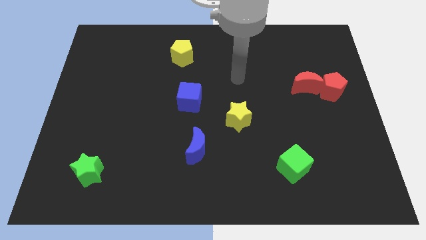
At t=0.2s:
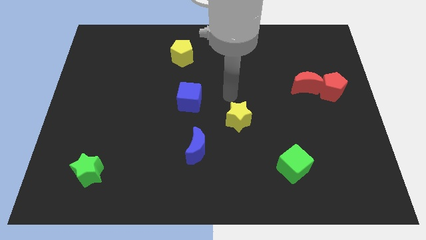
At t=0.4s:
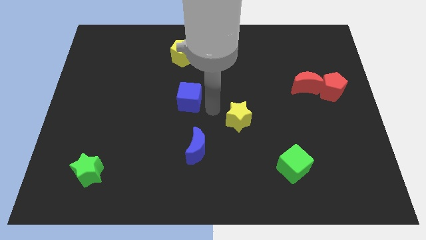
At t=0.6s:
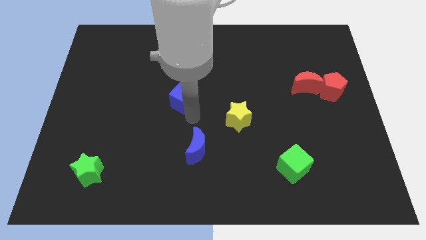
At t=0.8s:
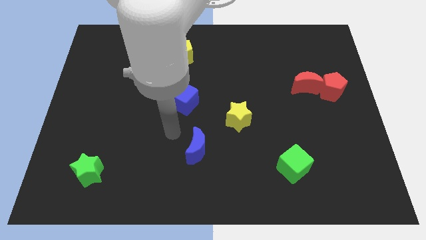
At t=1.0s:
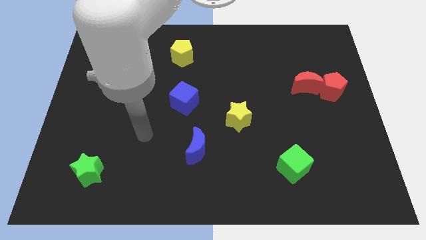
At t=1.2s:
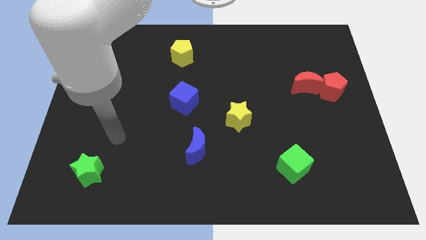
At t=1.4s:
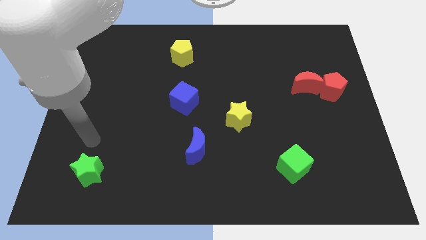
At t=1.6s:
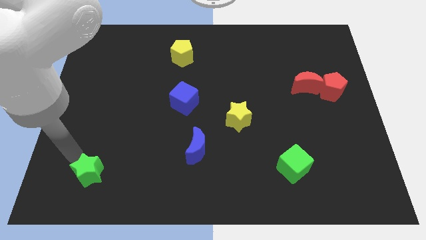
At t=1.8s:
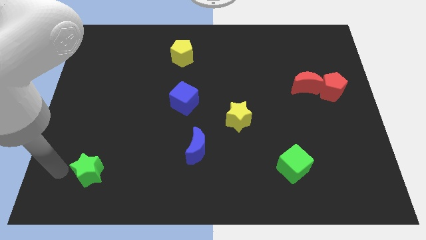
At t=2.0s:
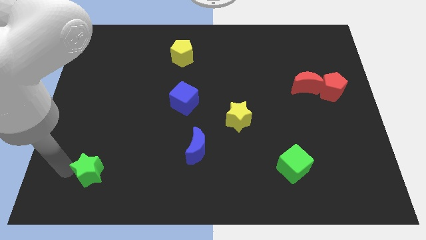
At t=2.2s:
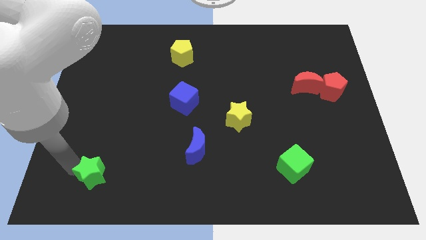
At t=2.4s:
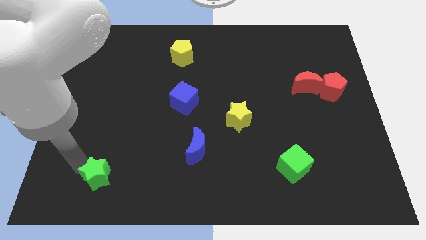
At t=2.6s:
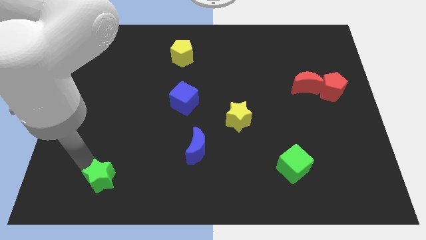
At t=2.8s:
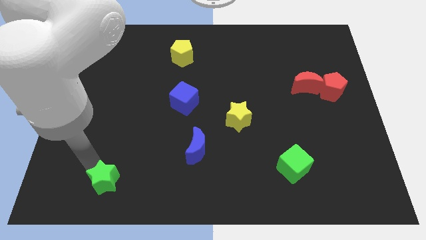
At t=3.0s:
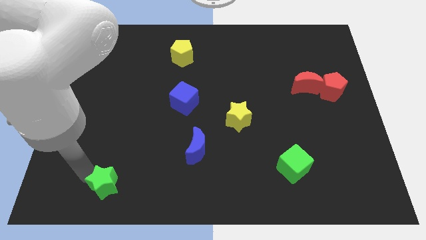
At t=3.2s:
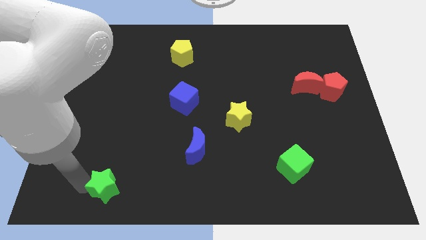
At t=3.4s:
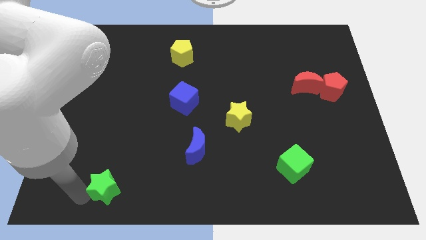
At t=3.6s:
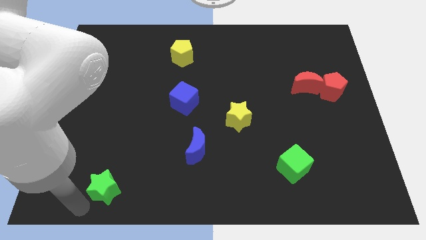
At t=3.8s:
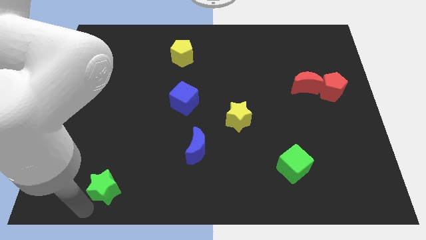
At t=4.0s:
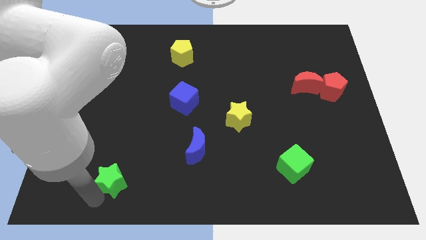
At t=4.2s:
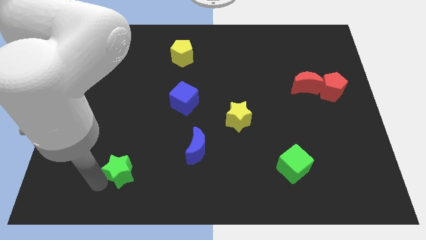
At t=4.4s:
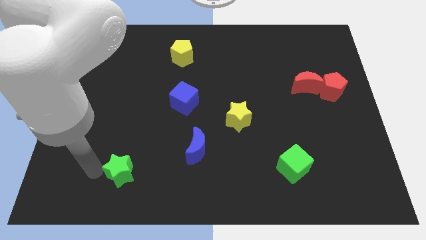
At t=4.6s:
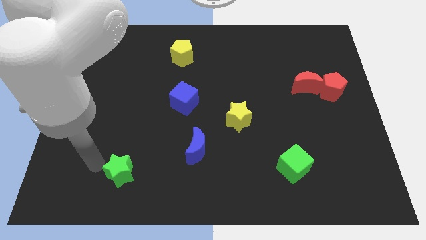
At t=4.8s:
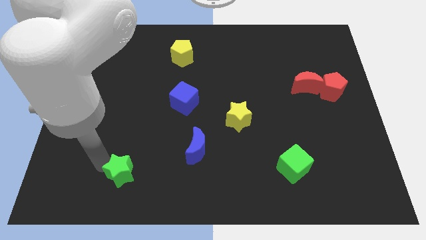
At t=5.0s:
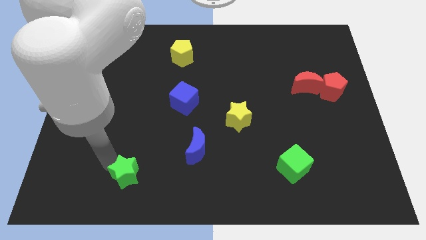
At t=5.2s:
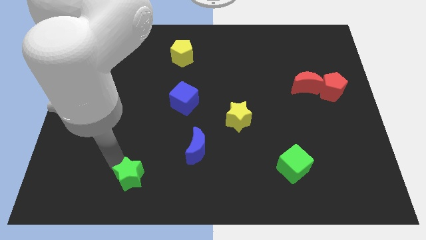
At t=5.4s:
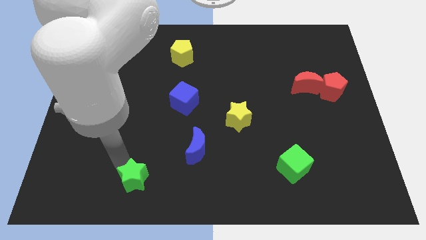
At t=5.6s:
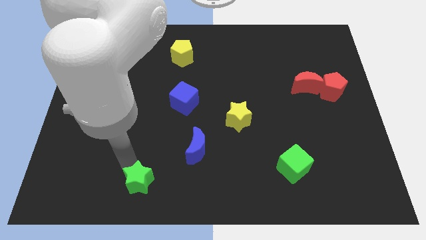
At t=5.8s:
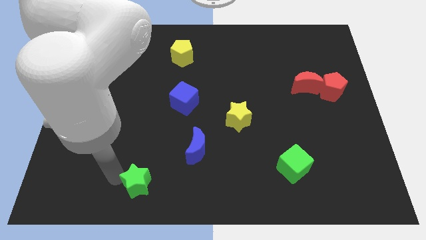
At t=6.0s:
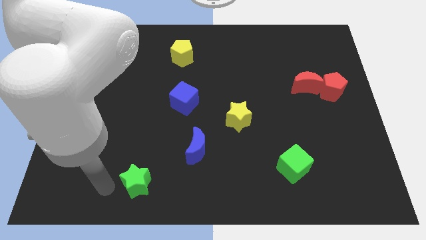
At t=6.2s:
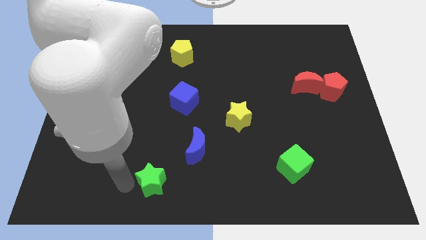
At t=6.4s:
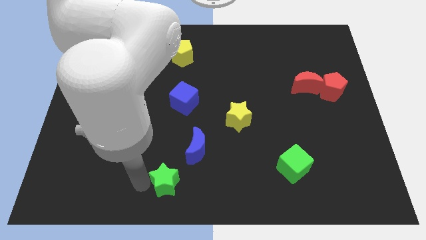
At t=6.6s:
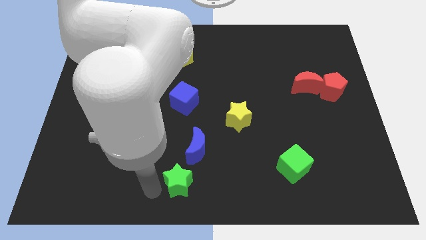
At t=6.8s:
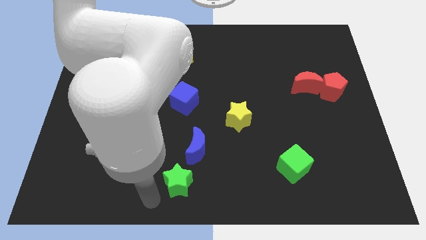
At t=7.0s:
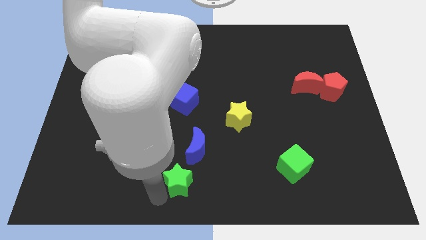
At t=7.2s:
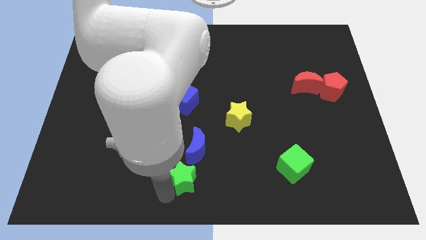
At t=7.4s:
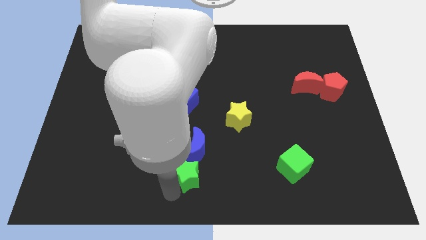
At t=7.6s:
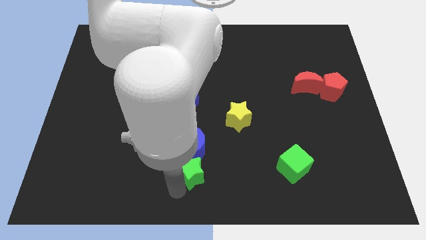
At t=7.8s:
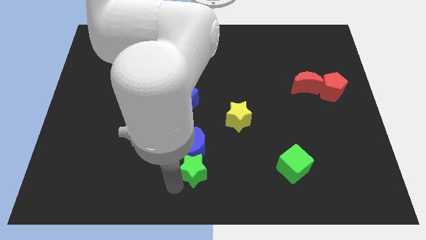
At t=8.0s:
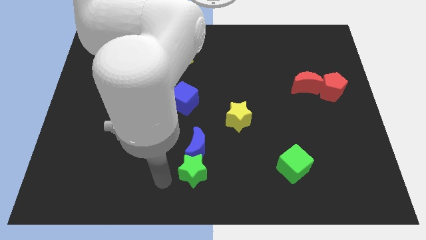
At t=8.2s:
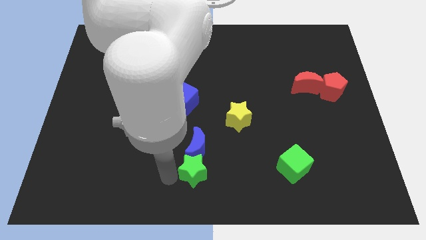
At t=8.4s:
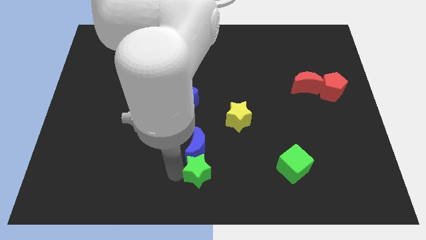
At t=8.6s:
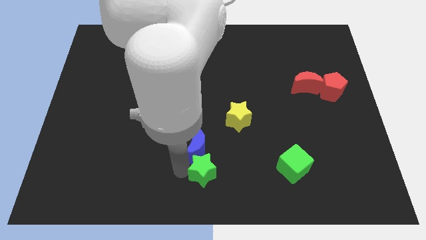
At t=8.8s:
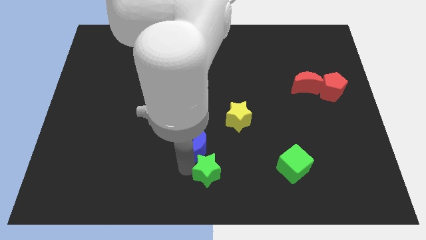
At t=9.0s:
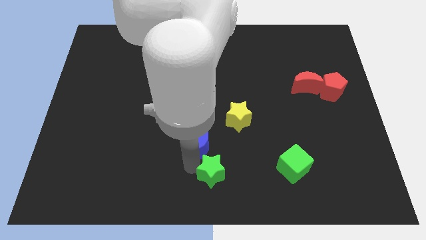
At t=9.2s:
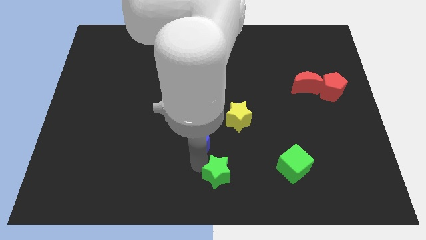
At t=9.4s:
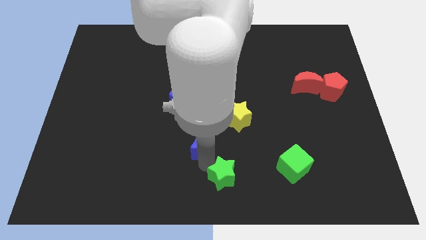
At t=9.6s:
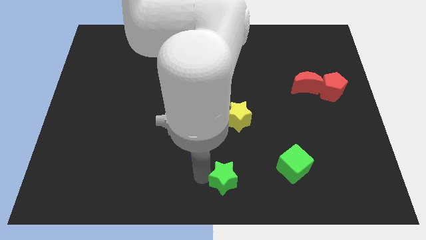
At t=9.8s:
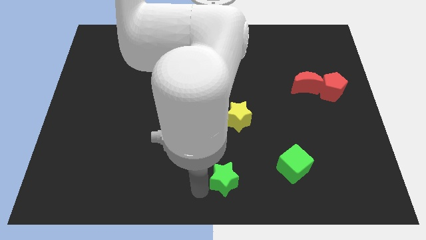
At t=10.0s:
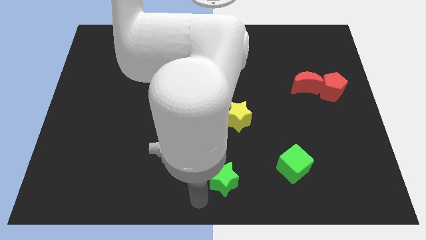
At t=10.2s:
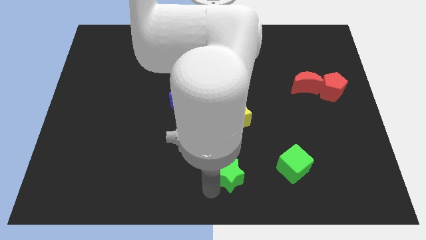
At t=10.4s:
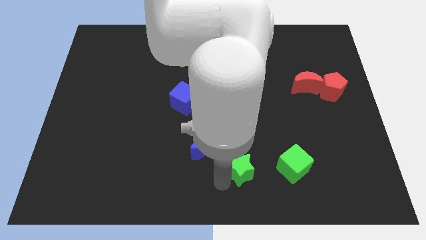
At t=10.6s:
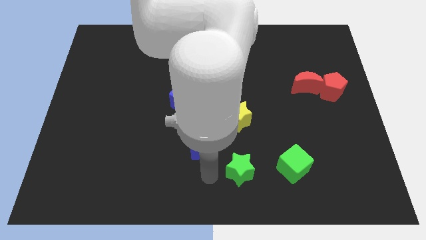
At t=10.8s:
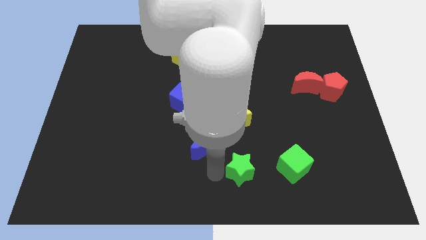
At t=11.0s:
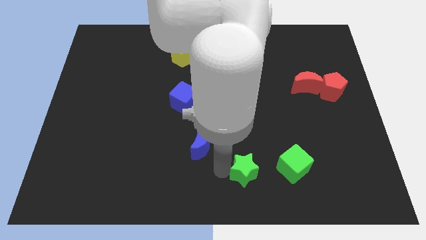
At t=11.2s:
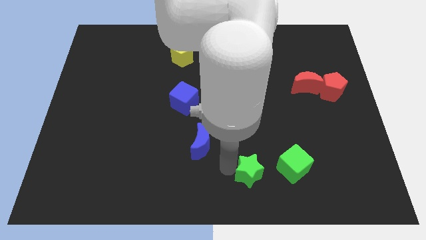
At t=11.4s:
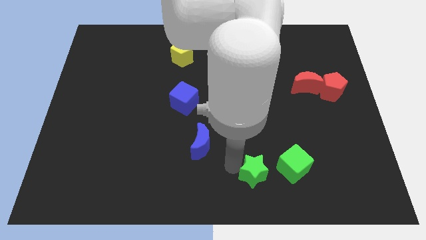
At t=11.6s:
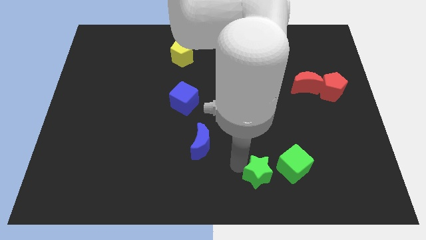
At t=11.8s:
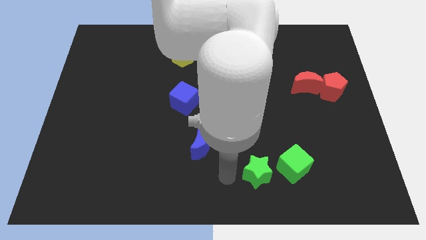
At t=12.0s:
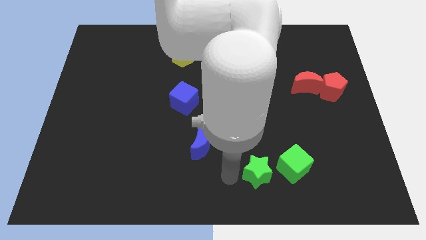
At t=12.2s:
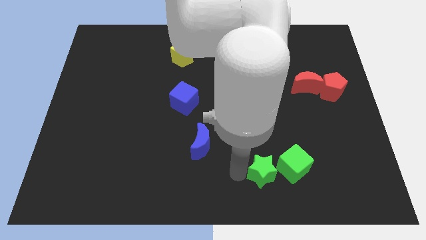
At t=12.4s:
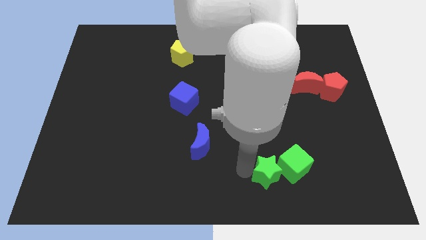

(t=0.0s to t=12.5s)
push the green star next to the green cube
